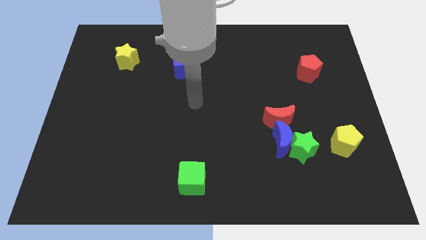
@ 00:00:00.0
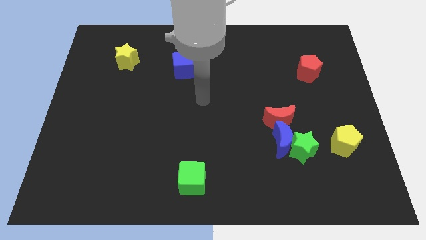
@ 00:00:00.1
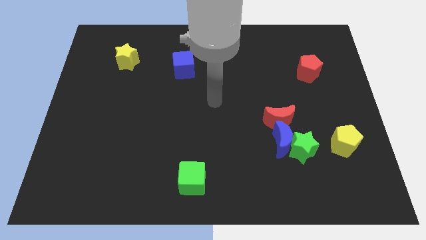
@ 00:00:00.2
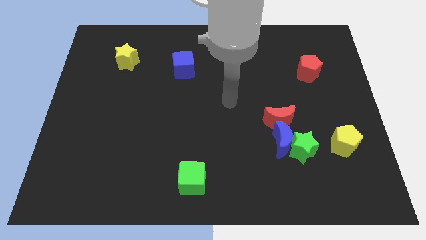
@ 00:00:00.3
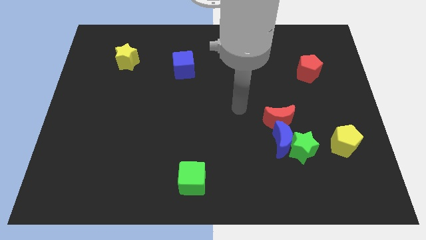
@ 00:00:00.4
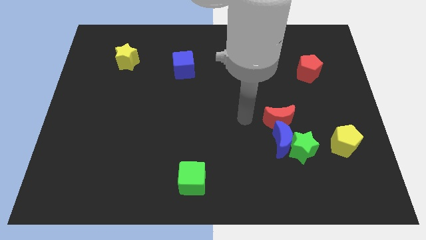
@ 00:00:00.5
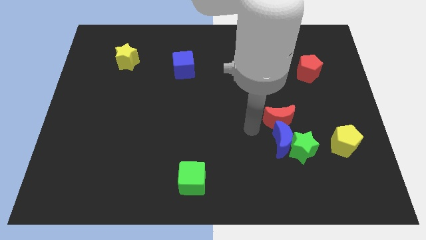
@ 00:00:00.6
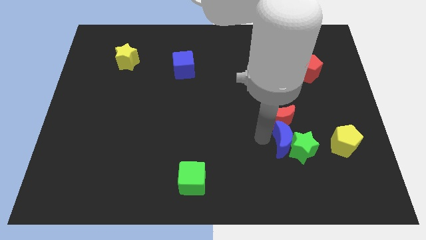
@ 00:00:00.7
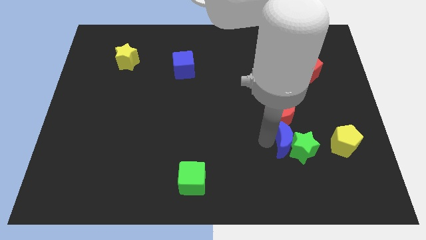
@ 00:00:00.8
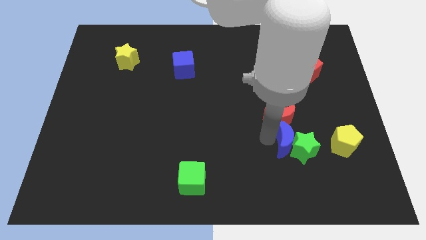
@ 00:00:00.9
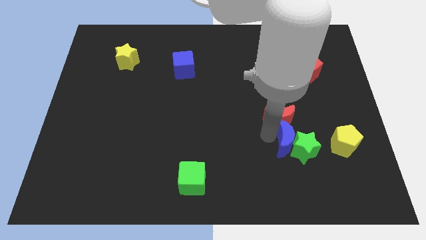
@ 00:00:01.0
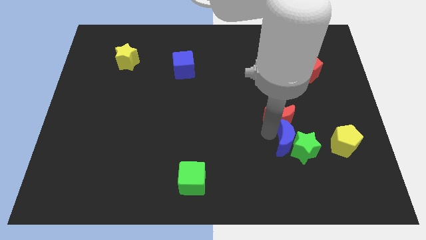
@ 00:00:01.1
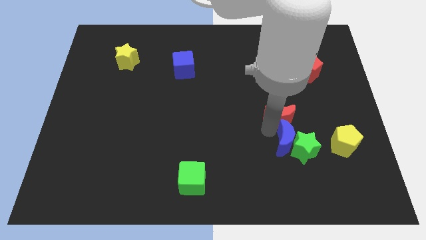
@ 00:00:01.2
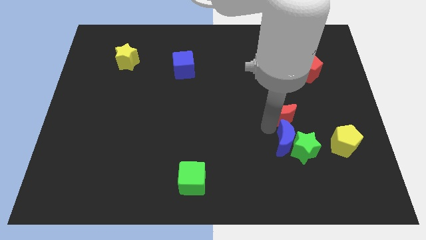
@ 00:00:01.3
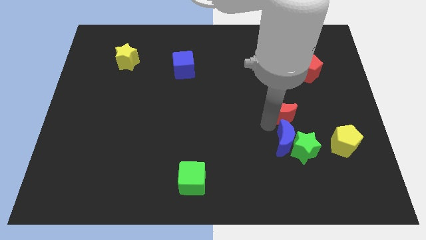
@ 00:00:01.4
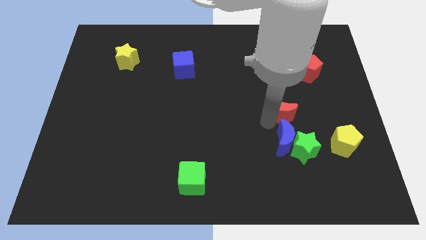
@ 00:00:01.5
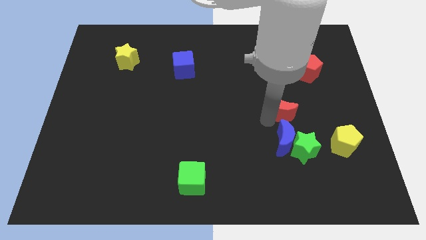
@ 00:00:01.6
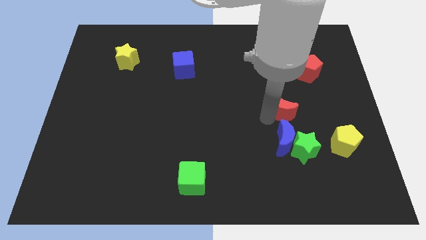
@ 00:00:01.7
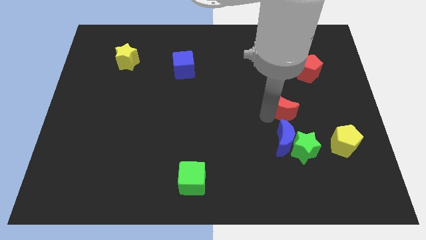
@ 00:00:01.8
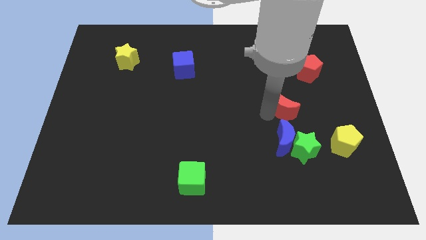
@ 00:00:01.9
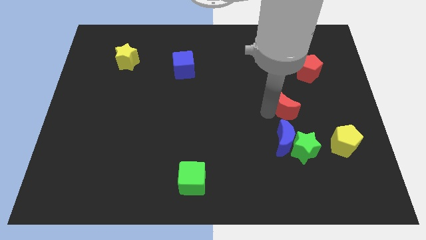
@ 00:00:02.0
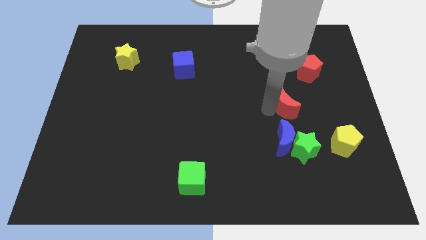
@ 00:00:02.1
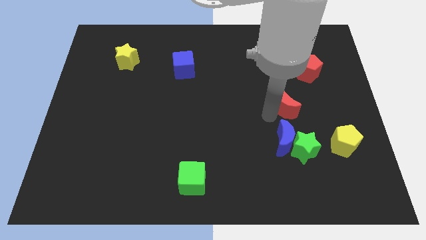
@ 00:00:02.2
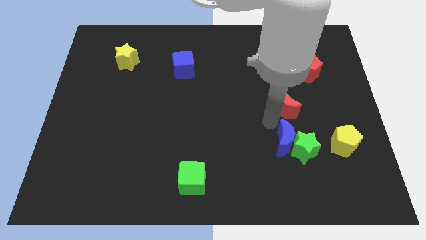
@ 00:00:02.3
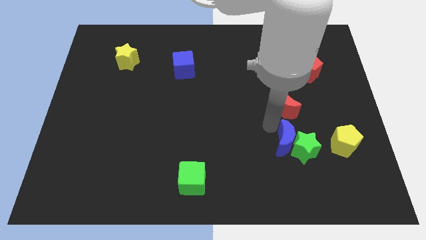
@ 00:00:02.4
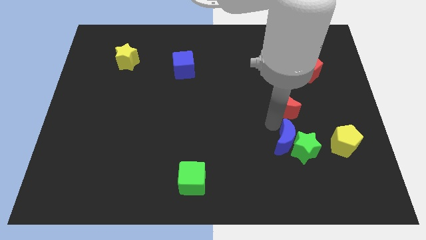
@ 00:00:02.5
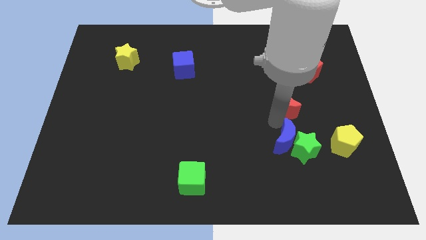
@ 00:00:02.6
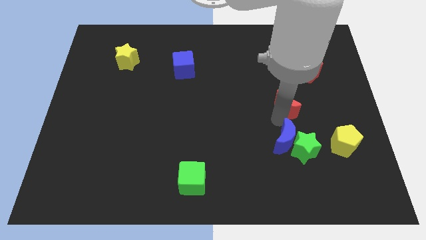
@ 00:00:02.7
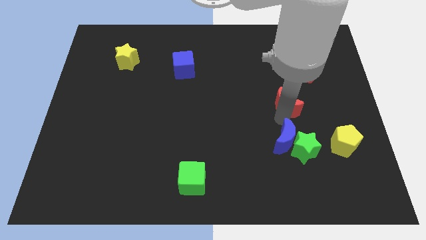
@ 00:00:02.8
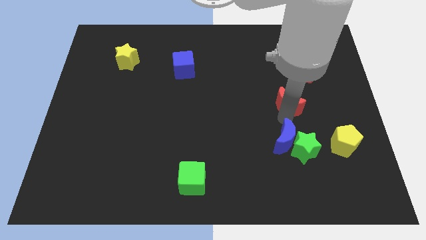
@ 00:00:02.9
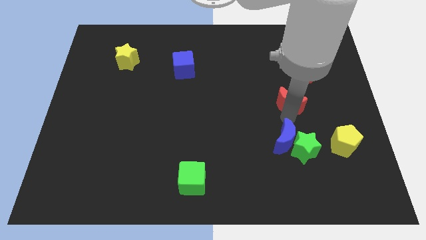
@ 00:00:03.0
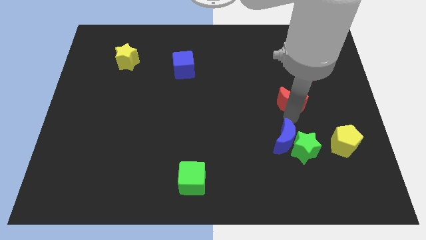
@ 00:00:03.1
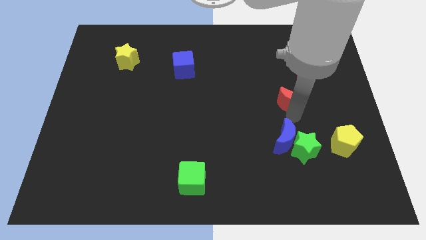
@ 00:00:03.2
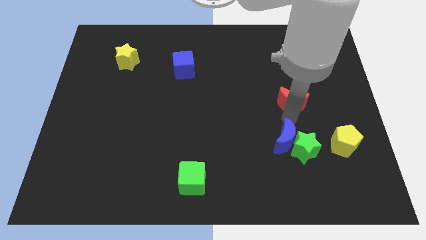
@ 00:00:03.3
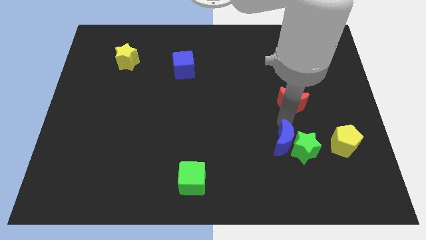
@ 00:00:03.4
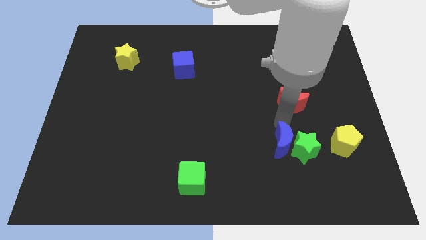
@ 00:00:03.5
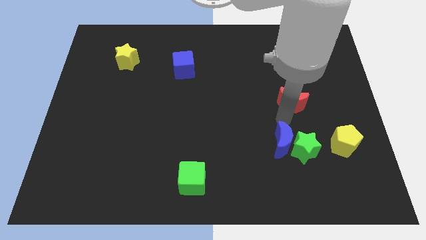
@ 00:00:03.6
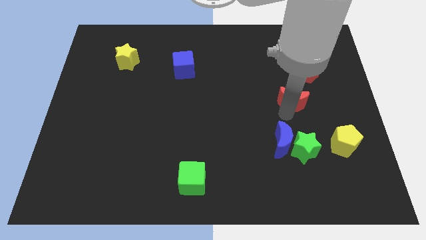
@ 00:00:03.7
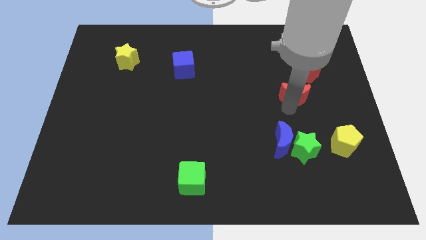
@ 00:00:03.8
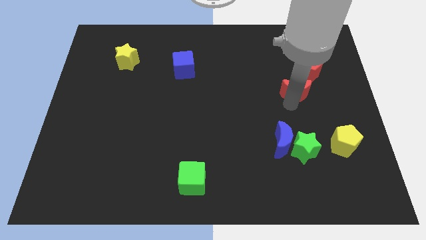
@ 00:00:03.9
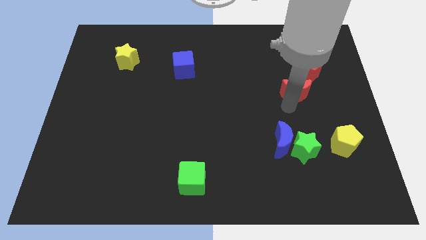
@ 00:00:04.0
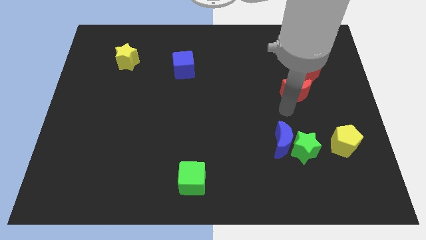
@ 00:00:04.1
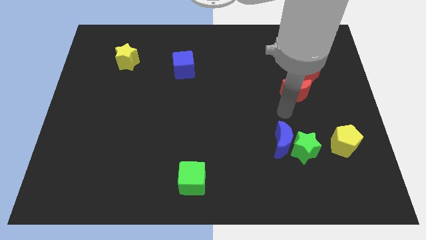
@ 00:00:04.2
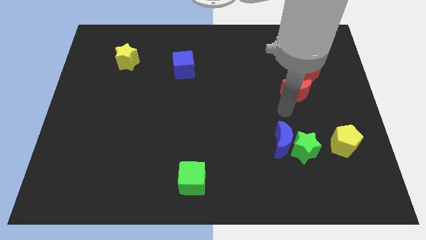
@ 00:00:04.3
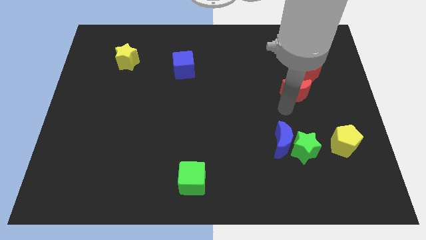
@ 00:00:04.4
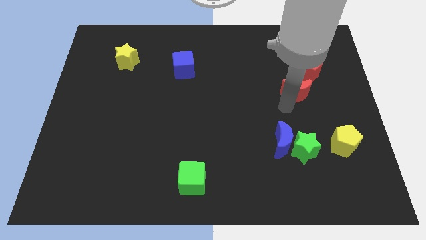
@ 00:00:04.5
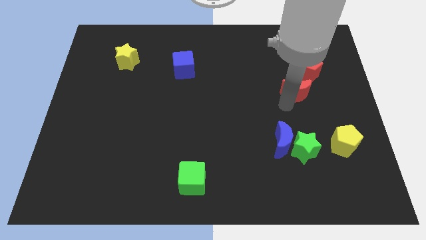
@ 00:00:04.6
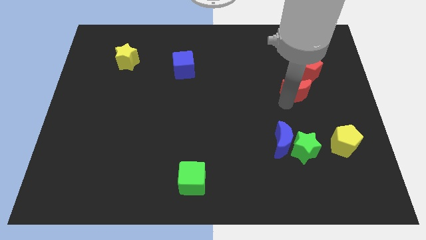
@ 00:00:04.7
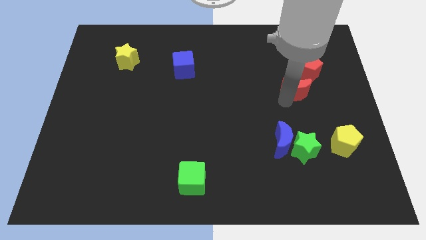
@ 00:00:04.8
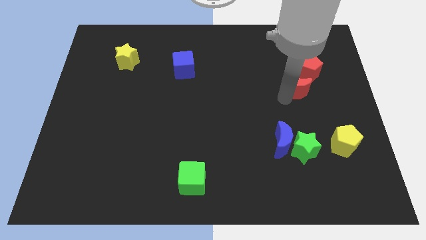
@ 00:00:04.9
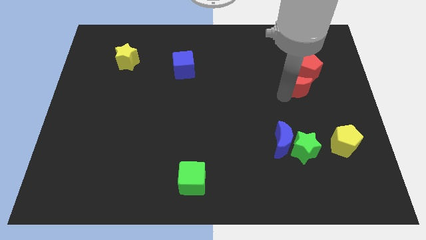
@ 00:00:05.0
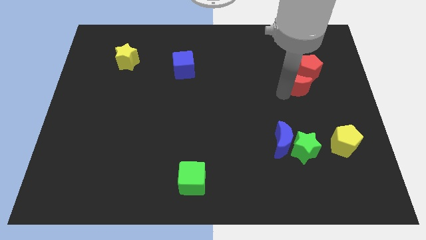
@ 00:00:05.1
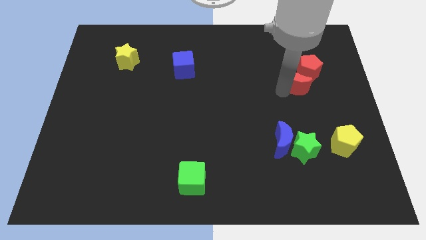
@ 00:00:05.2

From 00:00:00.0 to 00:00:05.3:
put the red moon to the red pentagon
